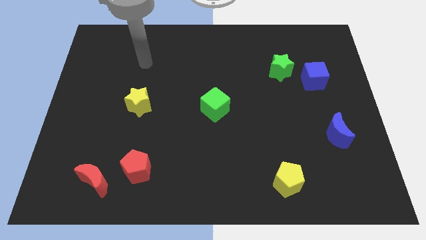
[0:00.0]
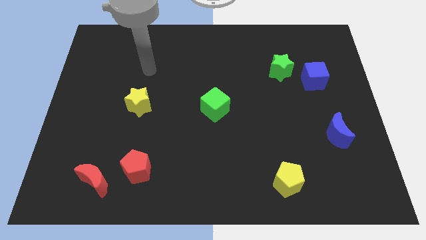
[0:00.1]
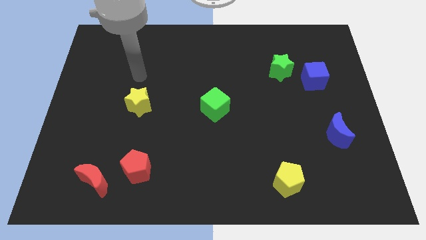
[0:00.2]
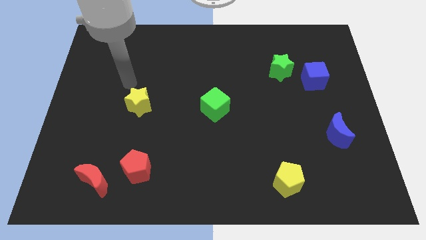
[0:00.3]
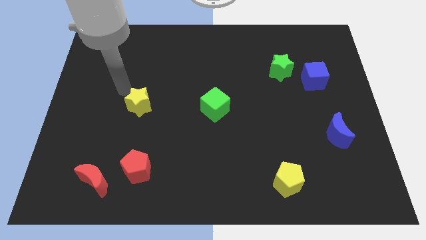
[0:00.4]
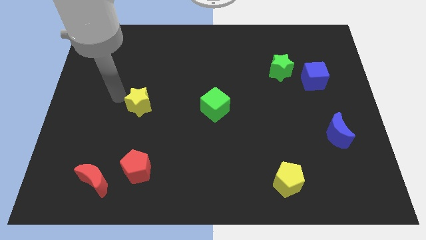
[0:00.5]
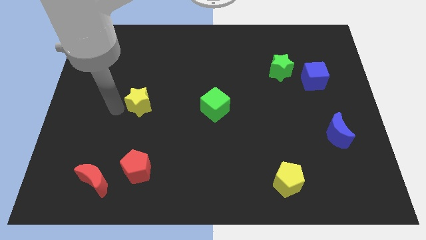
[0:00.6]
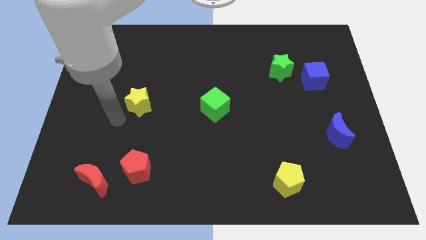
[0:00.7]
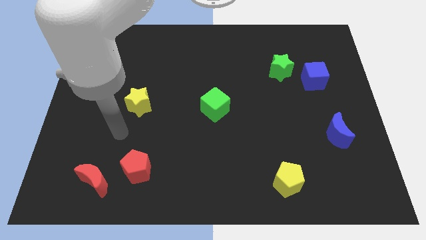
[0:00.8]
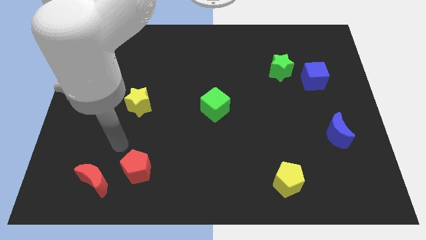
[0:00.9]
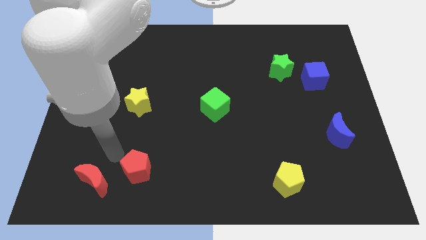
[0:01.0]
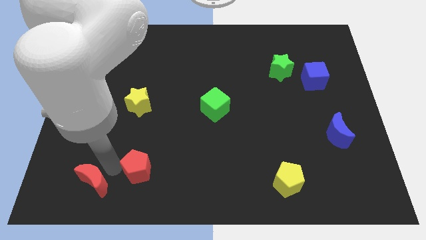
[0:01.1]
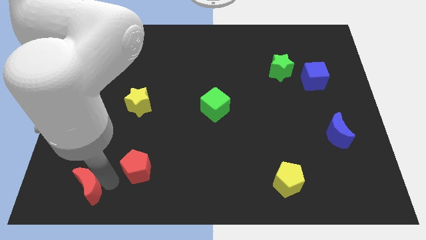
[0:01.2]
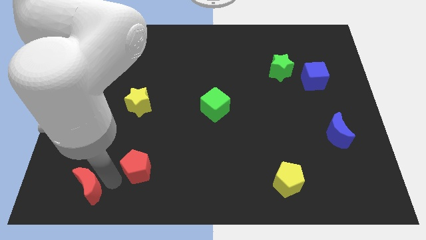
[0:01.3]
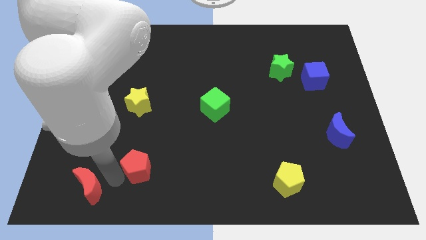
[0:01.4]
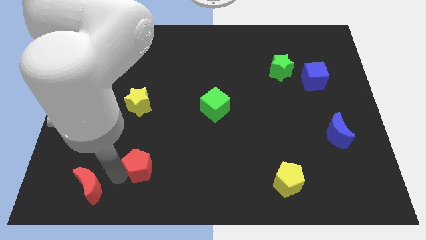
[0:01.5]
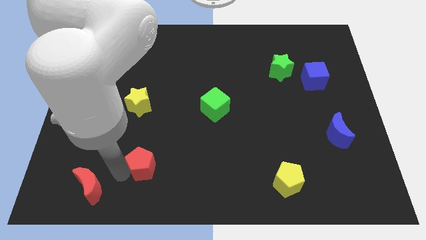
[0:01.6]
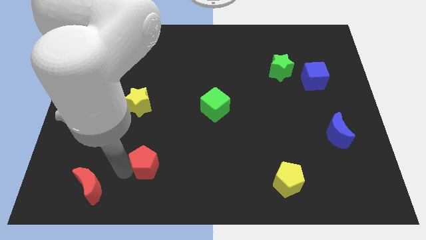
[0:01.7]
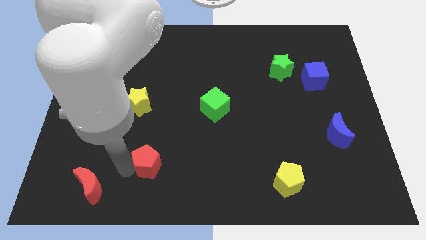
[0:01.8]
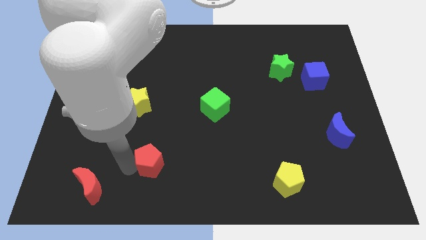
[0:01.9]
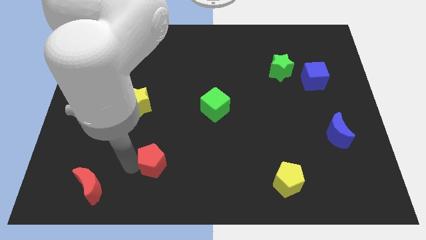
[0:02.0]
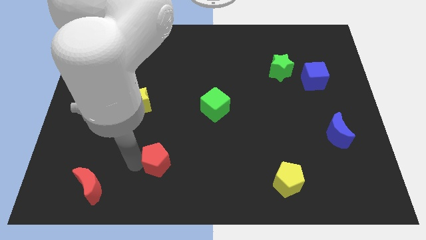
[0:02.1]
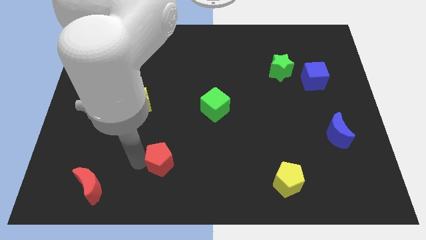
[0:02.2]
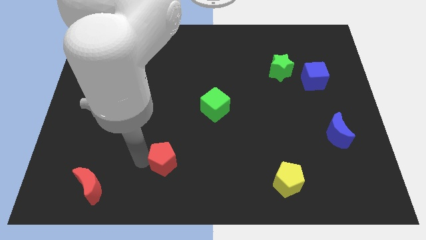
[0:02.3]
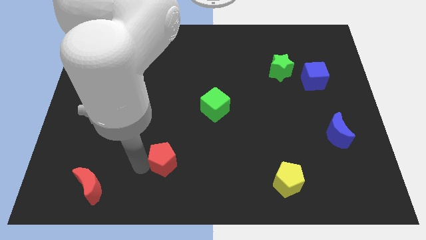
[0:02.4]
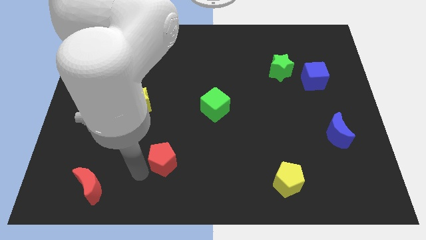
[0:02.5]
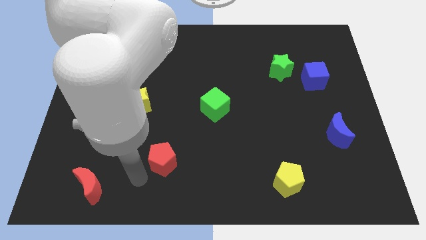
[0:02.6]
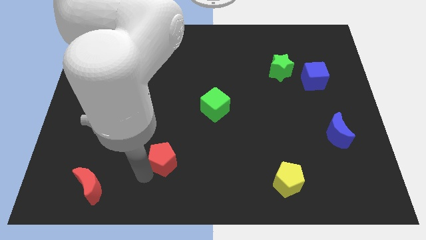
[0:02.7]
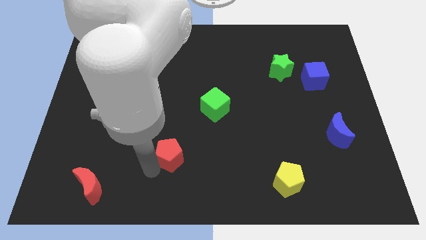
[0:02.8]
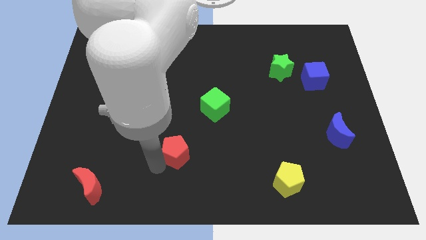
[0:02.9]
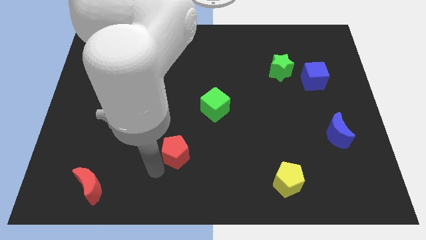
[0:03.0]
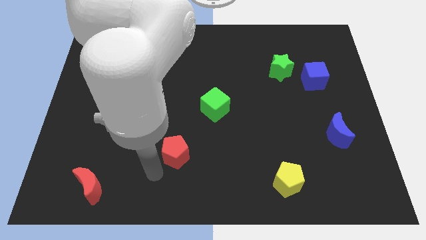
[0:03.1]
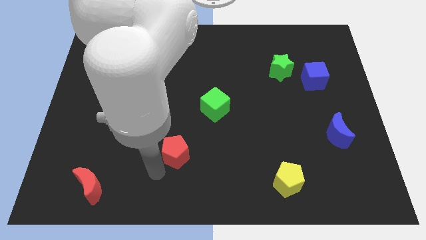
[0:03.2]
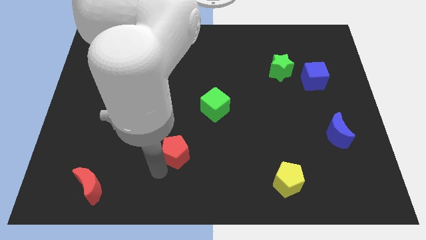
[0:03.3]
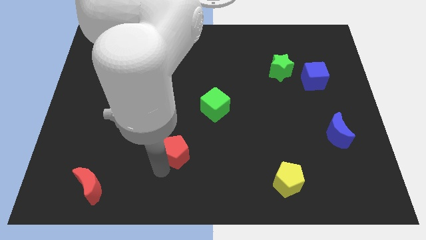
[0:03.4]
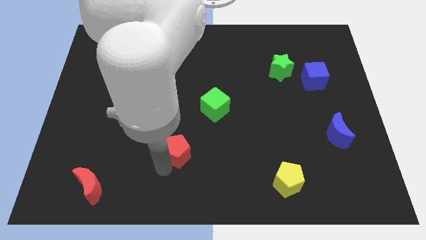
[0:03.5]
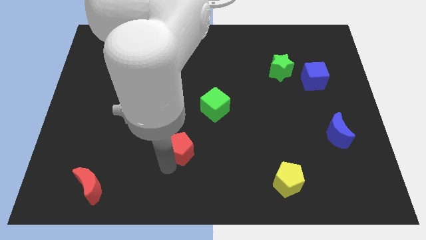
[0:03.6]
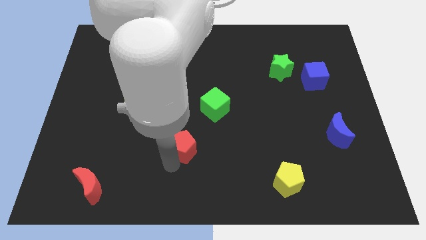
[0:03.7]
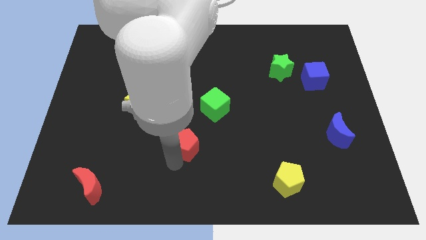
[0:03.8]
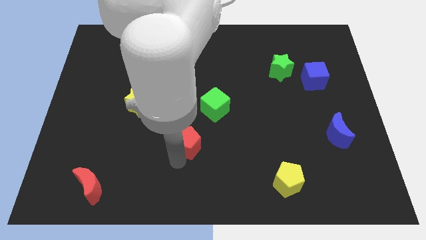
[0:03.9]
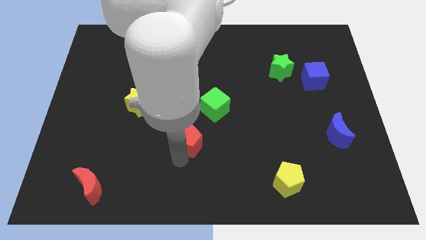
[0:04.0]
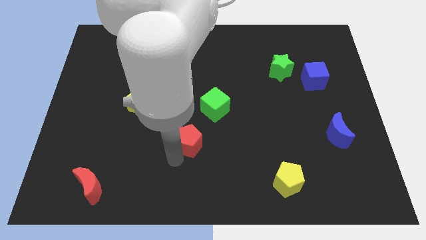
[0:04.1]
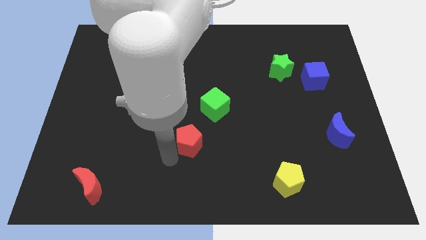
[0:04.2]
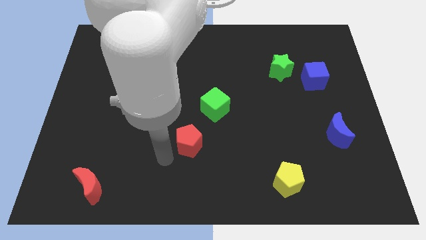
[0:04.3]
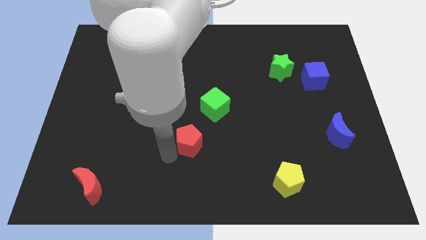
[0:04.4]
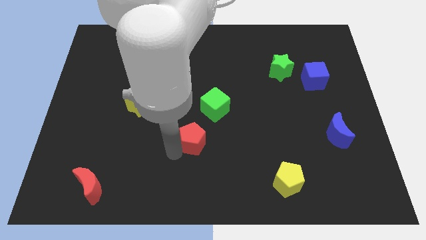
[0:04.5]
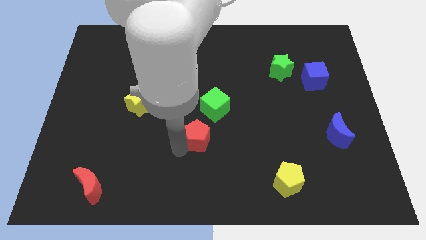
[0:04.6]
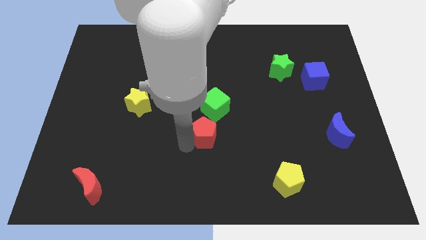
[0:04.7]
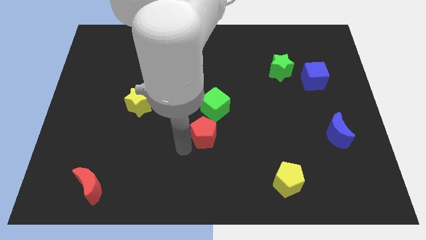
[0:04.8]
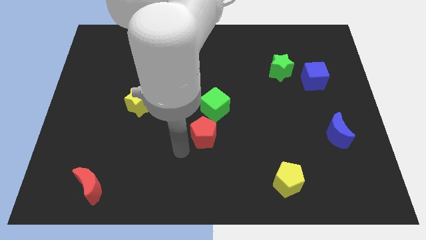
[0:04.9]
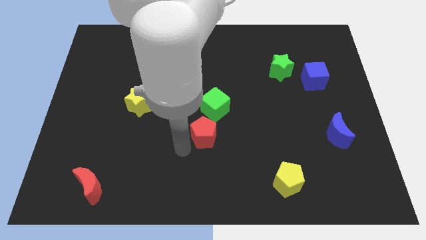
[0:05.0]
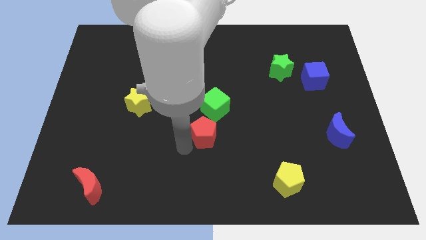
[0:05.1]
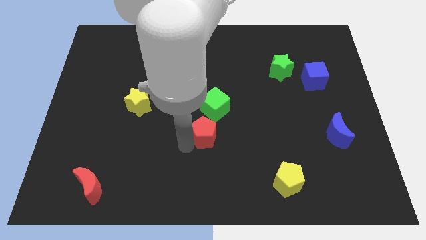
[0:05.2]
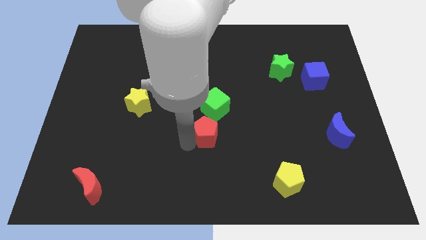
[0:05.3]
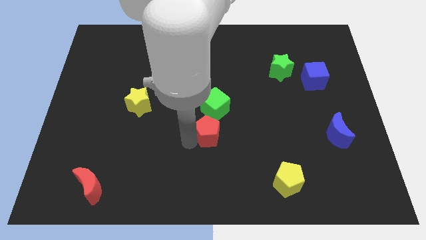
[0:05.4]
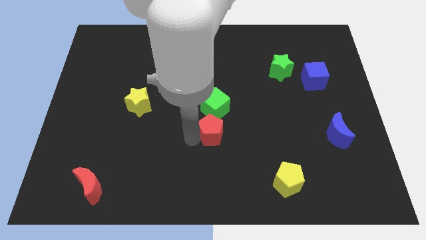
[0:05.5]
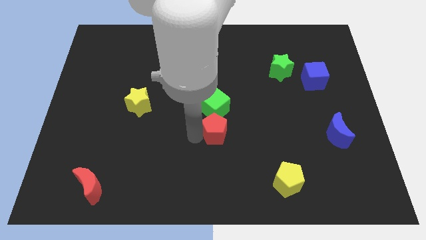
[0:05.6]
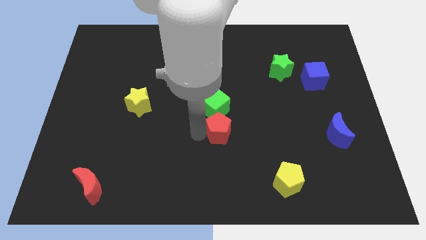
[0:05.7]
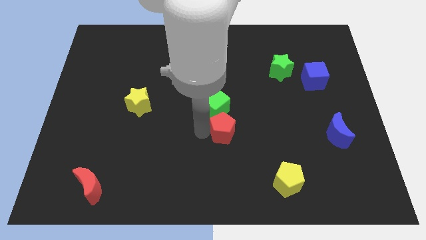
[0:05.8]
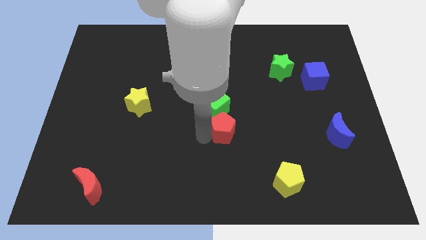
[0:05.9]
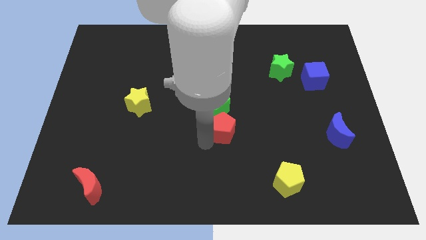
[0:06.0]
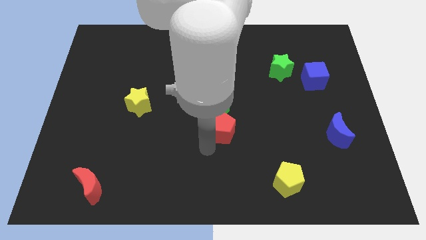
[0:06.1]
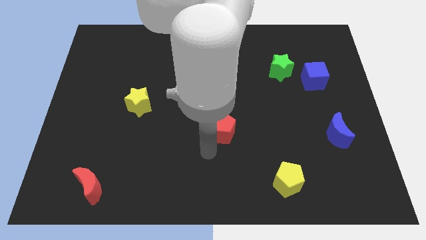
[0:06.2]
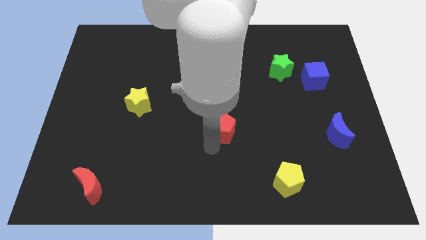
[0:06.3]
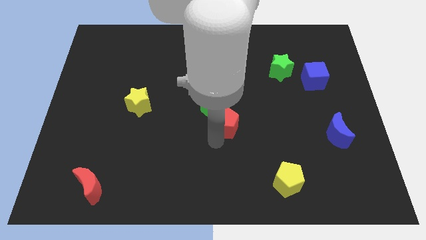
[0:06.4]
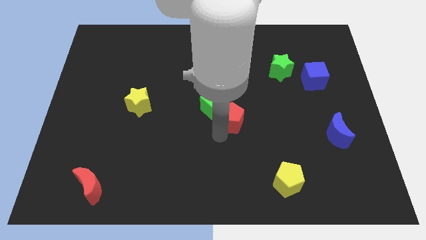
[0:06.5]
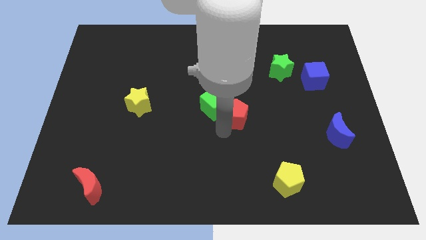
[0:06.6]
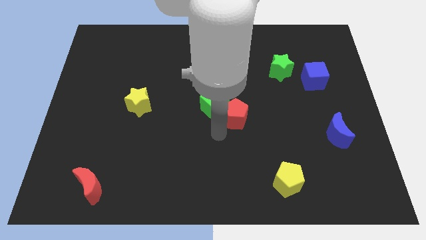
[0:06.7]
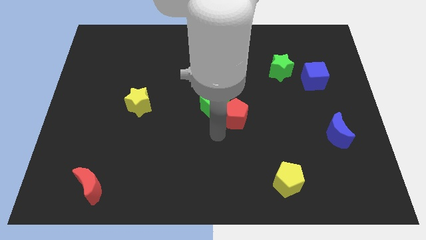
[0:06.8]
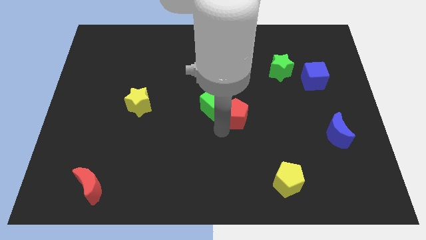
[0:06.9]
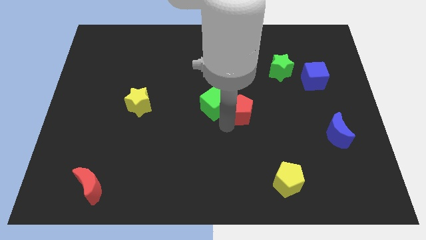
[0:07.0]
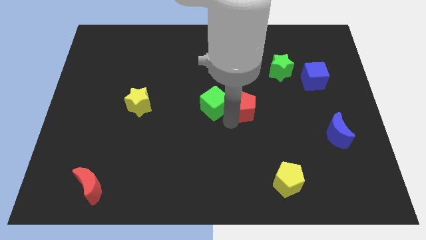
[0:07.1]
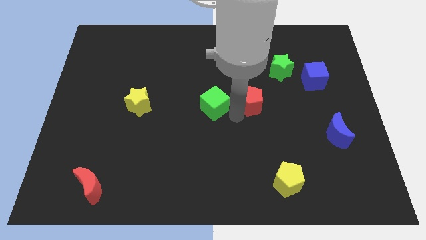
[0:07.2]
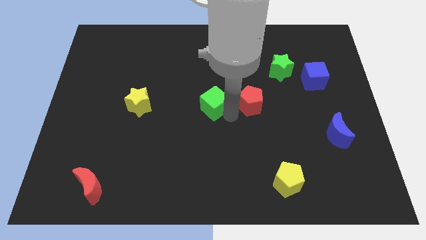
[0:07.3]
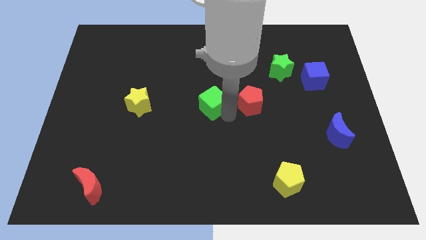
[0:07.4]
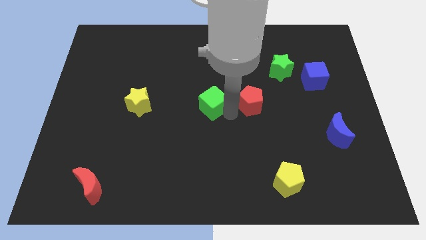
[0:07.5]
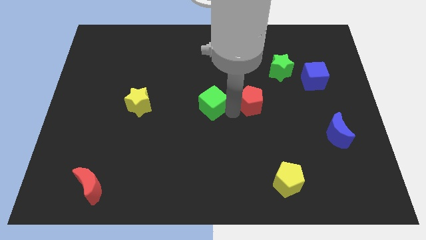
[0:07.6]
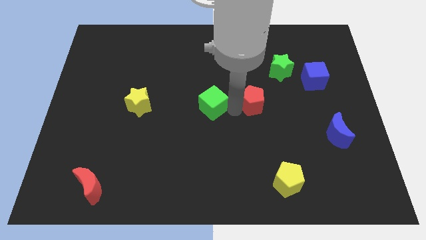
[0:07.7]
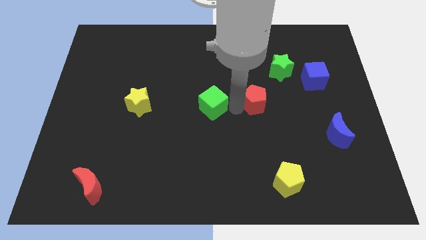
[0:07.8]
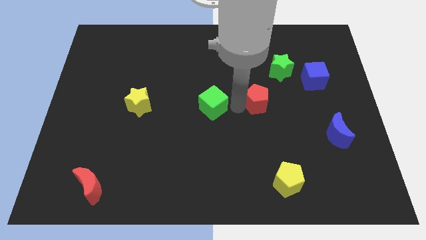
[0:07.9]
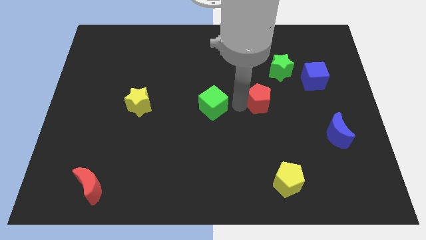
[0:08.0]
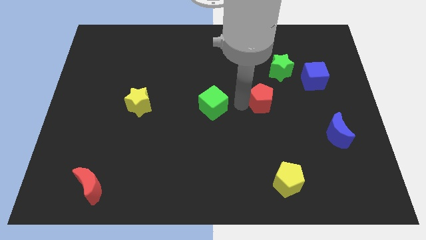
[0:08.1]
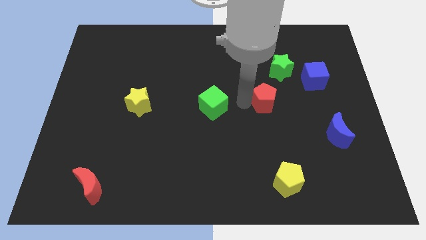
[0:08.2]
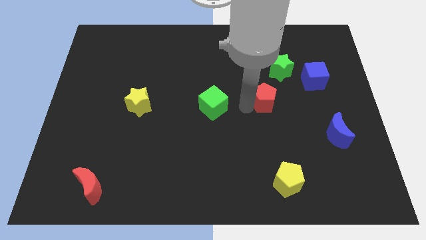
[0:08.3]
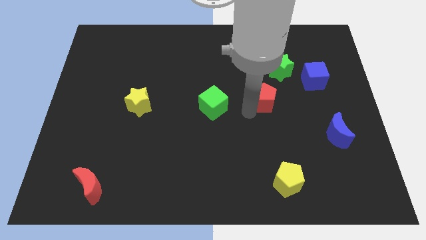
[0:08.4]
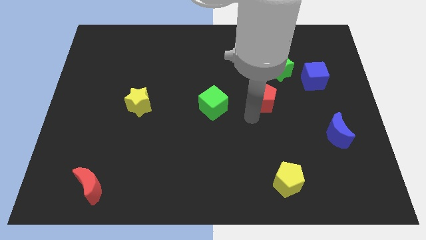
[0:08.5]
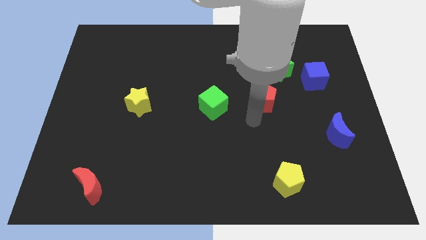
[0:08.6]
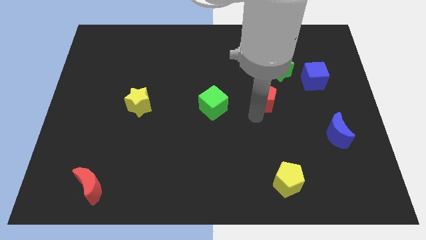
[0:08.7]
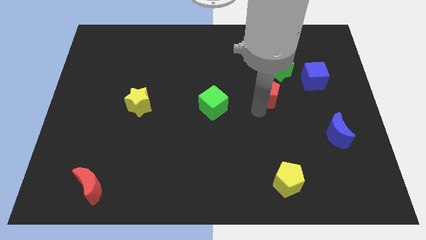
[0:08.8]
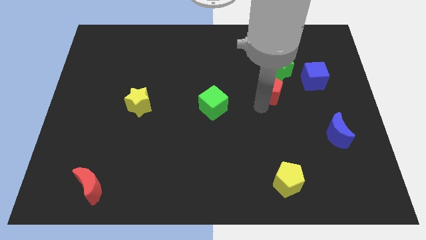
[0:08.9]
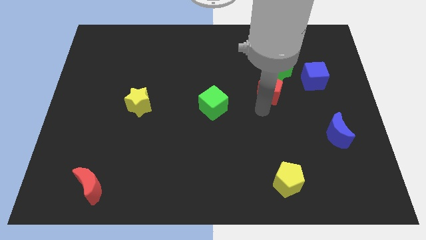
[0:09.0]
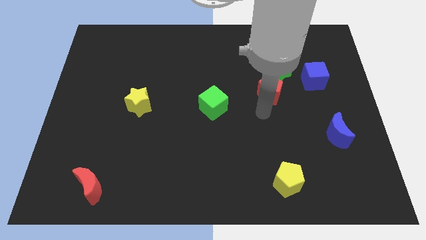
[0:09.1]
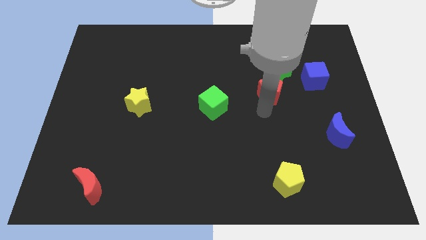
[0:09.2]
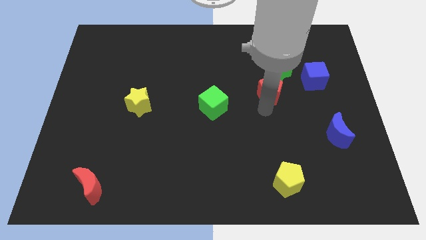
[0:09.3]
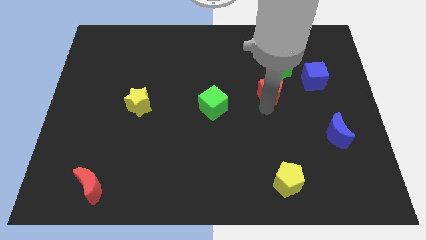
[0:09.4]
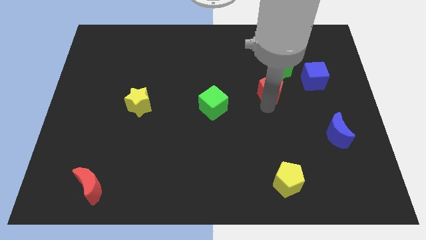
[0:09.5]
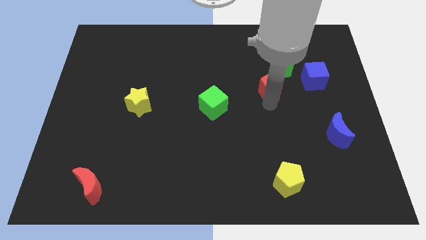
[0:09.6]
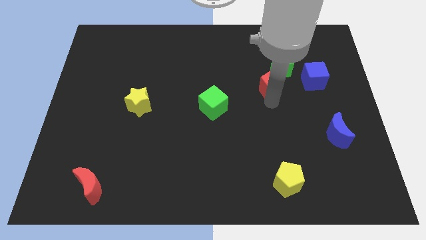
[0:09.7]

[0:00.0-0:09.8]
push the red pentagon towards the green star
